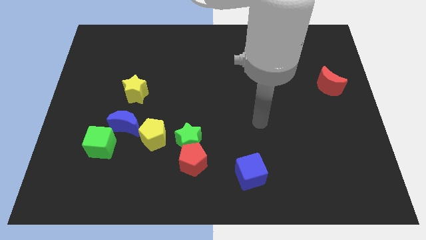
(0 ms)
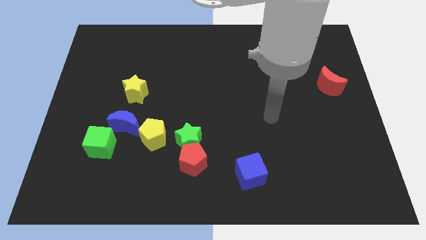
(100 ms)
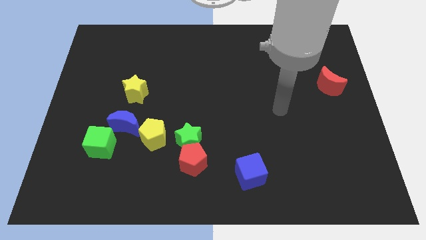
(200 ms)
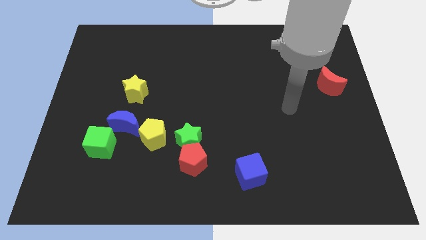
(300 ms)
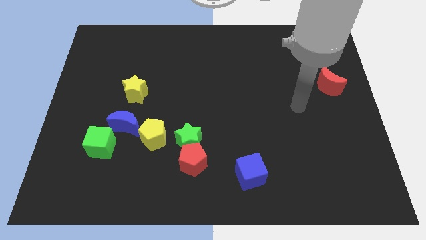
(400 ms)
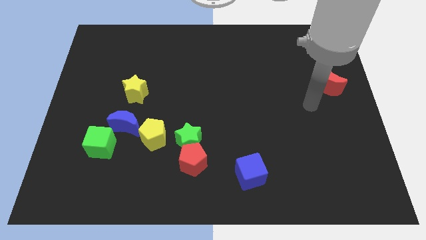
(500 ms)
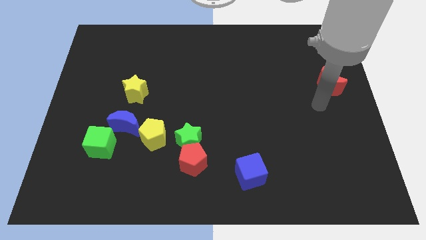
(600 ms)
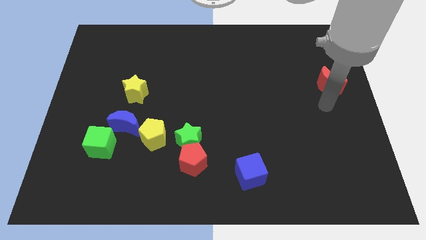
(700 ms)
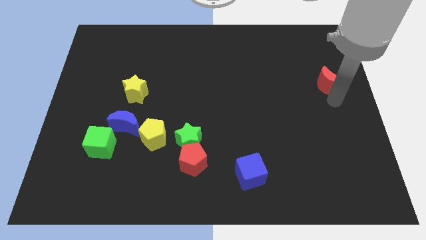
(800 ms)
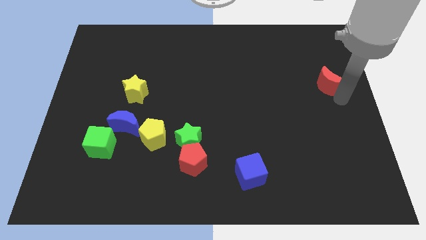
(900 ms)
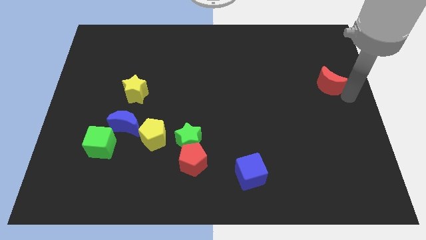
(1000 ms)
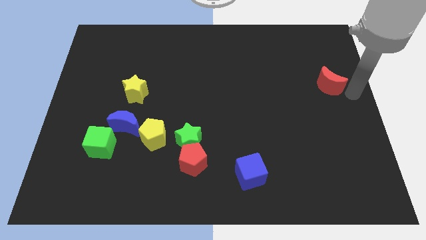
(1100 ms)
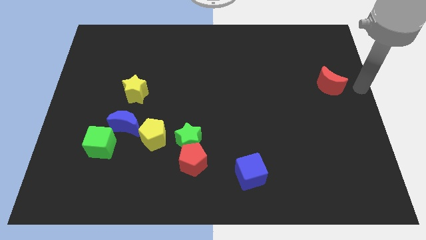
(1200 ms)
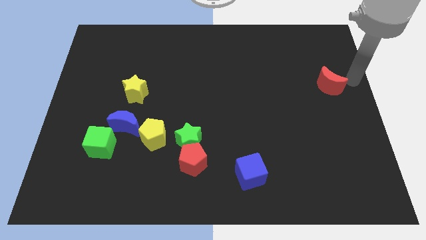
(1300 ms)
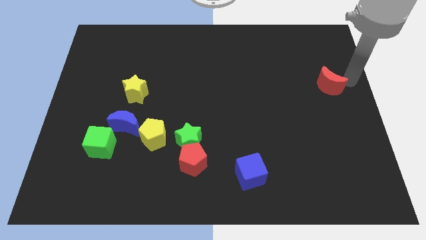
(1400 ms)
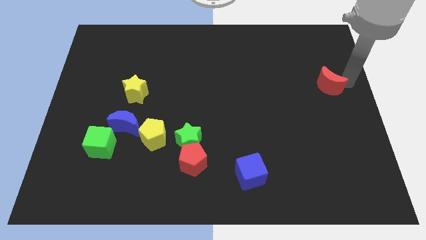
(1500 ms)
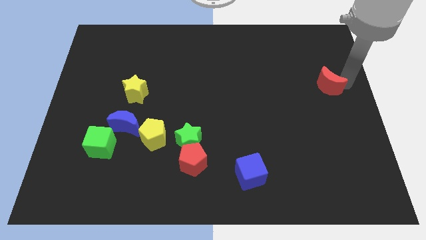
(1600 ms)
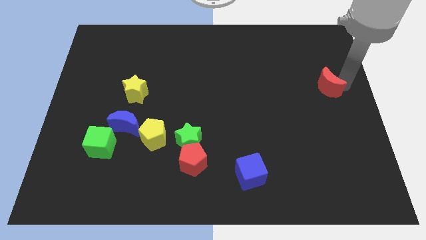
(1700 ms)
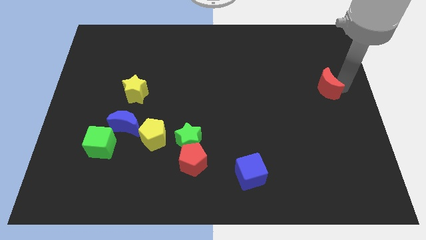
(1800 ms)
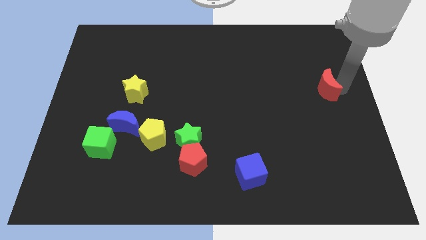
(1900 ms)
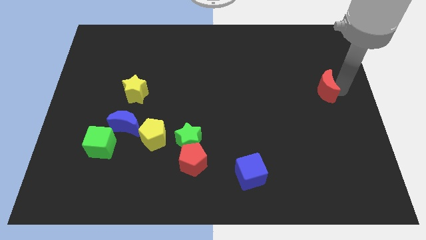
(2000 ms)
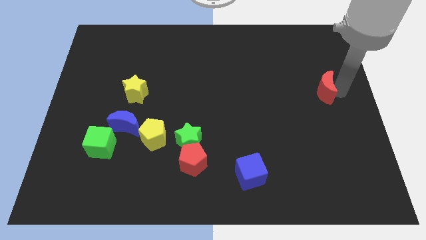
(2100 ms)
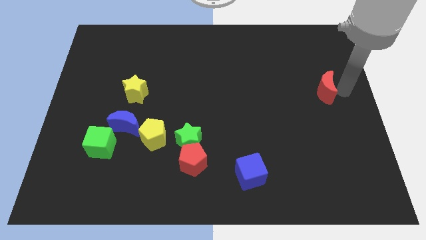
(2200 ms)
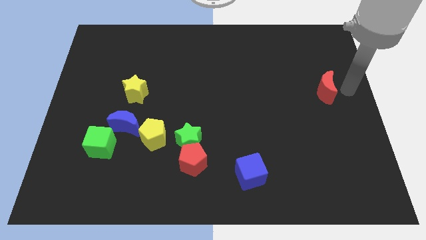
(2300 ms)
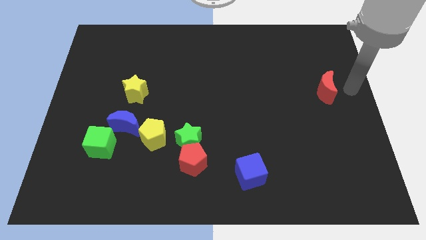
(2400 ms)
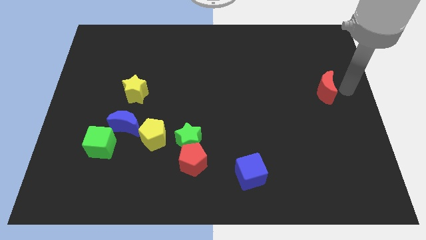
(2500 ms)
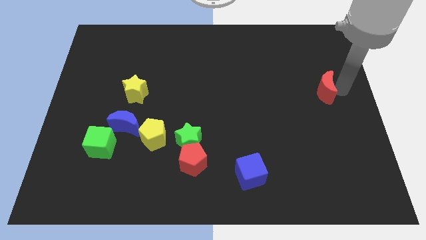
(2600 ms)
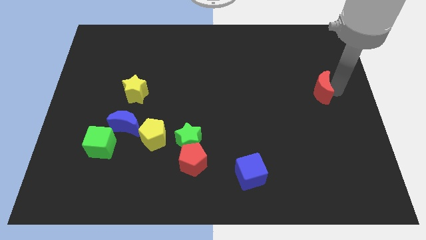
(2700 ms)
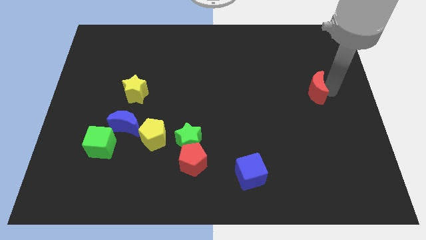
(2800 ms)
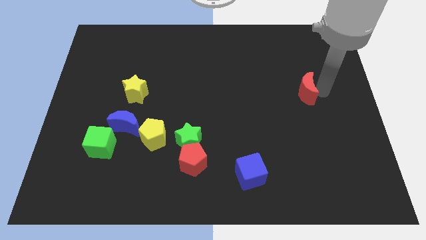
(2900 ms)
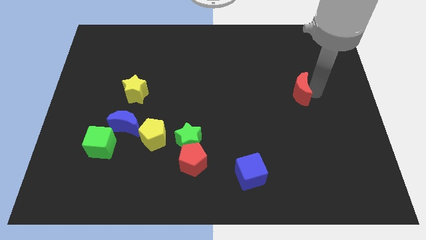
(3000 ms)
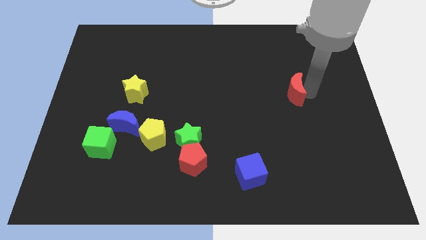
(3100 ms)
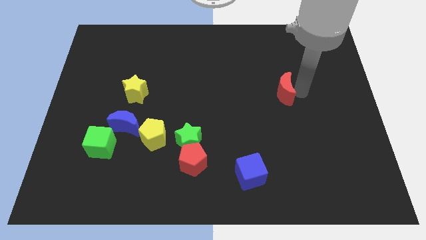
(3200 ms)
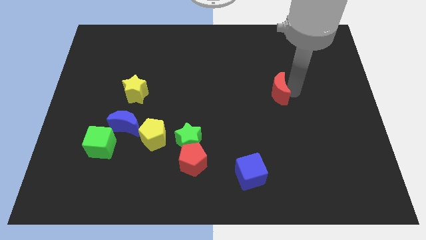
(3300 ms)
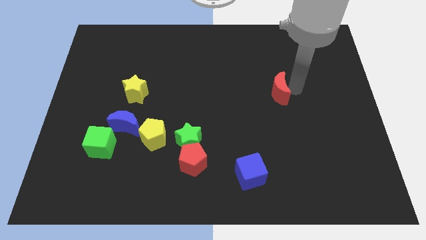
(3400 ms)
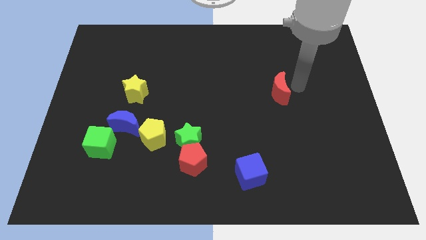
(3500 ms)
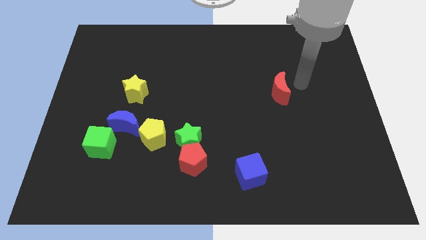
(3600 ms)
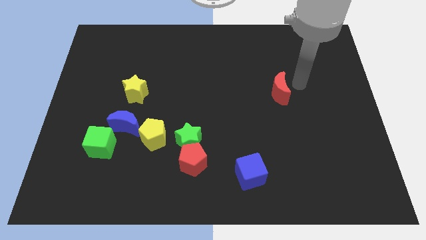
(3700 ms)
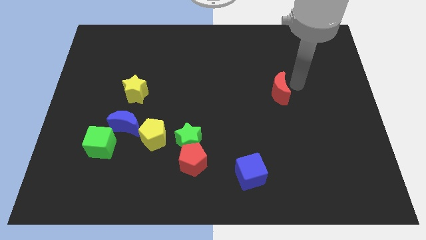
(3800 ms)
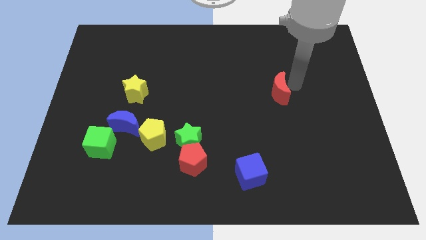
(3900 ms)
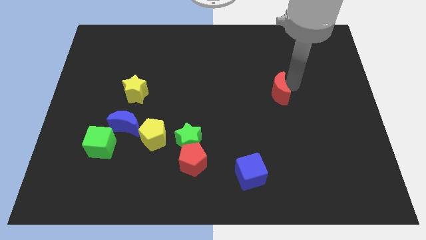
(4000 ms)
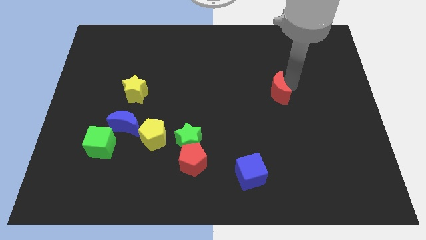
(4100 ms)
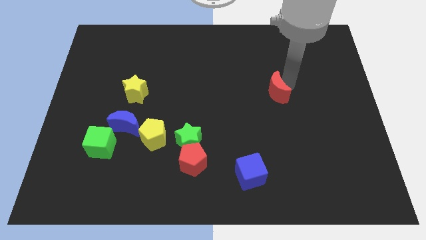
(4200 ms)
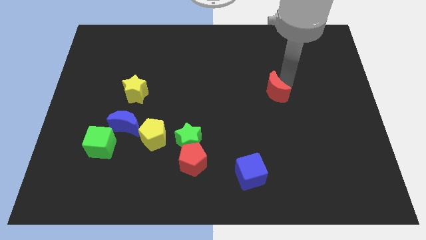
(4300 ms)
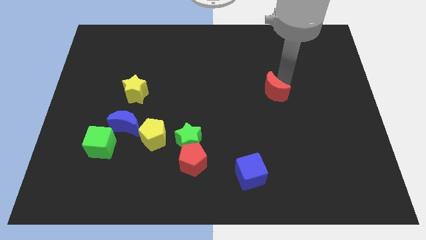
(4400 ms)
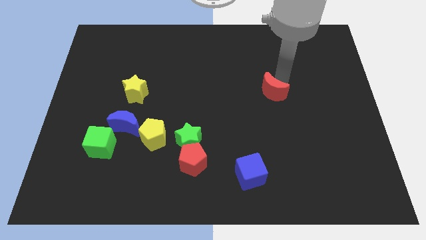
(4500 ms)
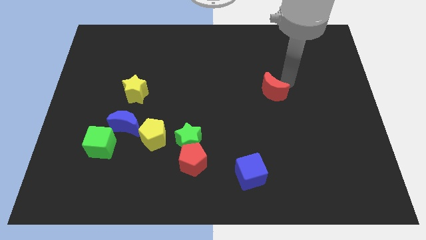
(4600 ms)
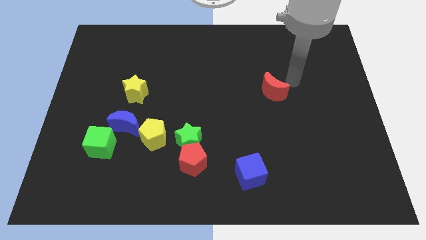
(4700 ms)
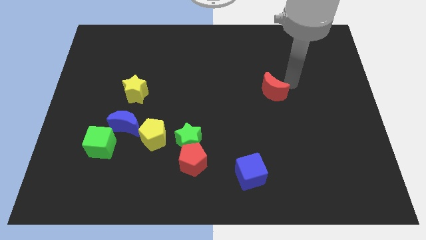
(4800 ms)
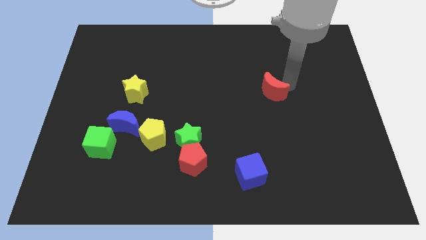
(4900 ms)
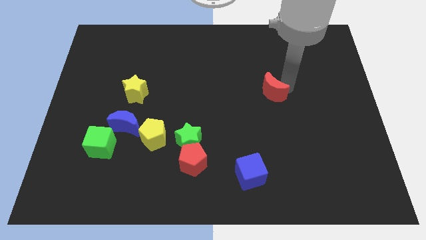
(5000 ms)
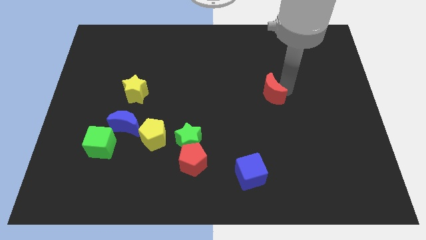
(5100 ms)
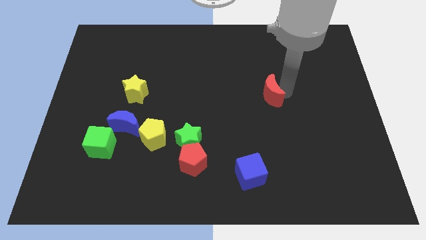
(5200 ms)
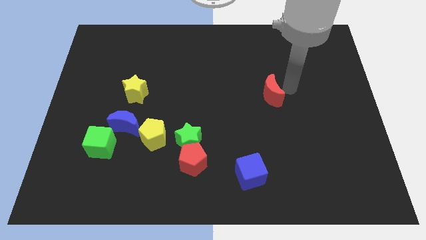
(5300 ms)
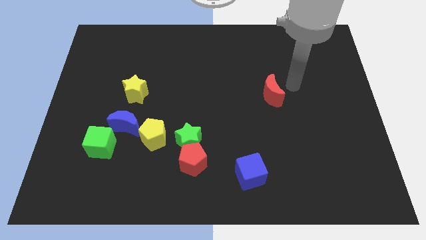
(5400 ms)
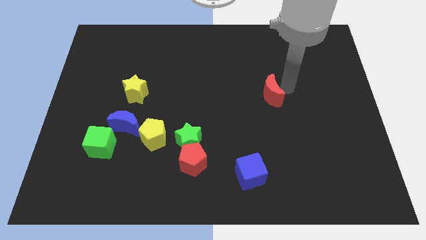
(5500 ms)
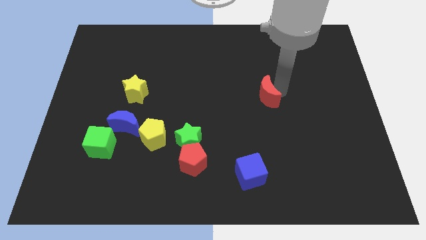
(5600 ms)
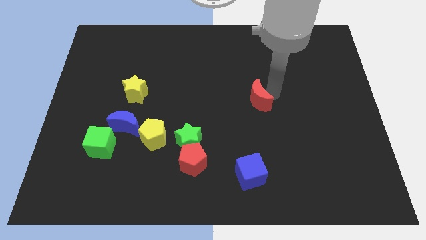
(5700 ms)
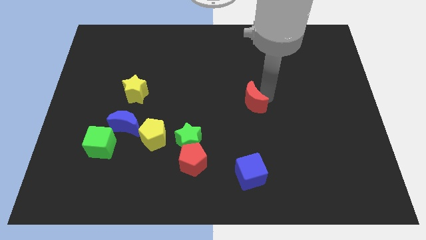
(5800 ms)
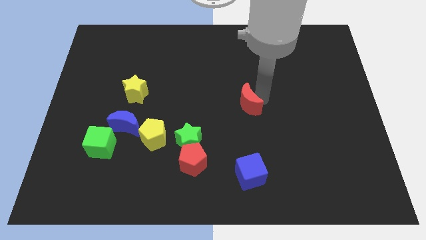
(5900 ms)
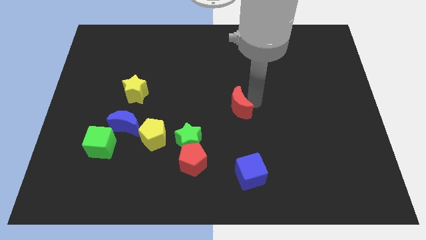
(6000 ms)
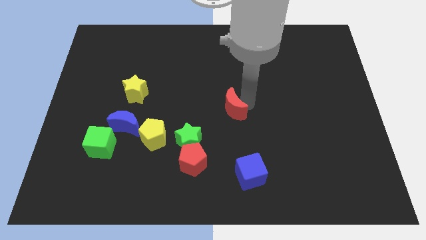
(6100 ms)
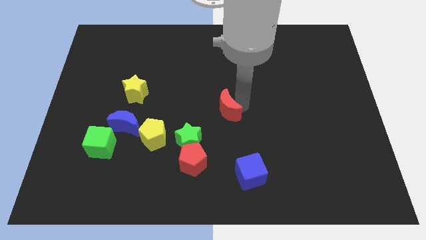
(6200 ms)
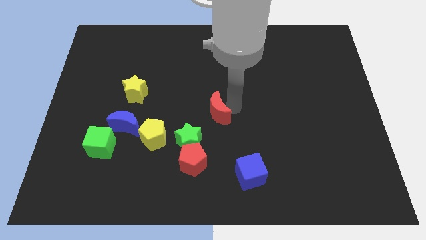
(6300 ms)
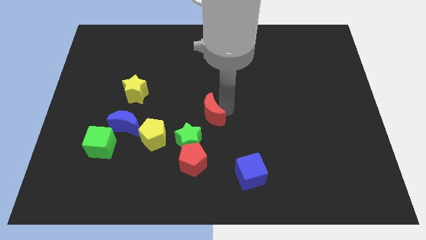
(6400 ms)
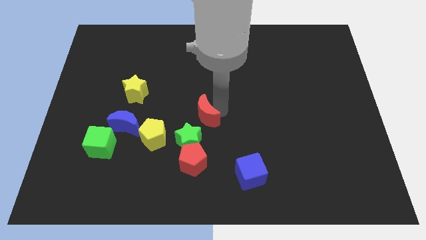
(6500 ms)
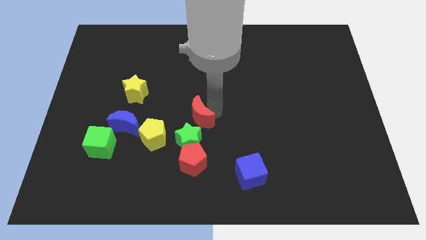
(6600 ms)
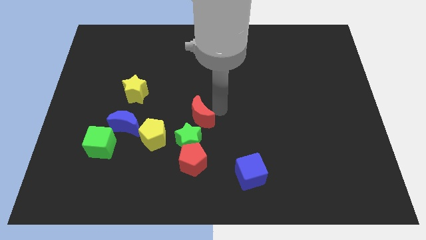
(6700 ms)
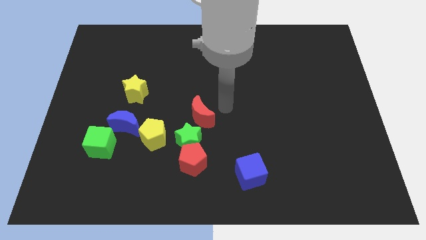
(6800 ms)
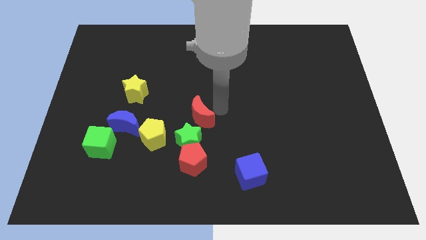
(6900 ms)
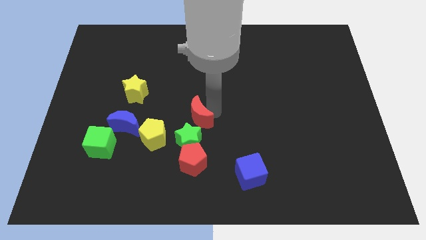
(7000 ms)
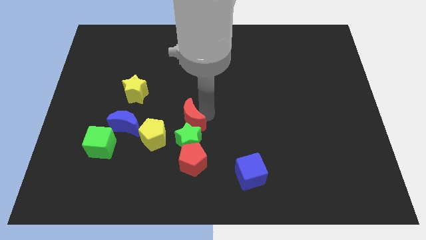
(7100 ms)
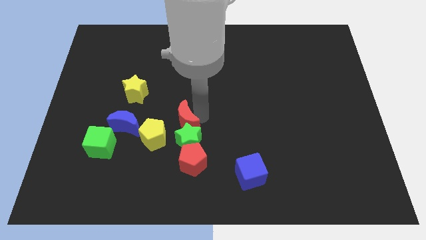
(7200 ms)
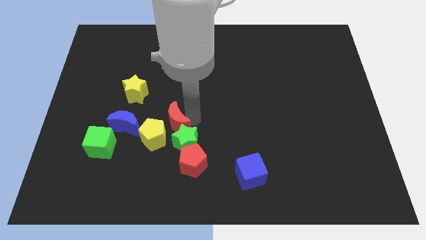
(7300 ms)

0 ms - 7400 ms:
put the red moon to the yellow pentagon

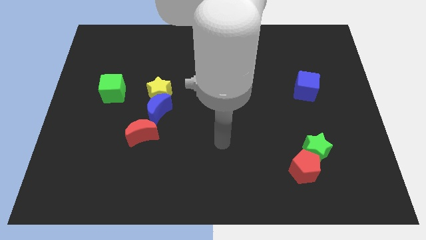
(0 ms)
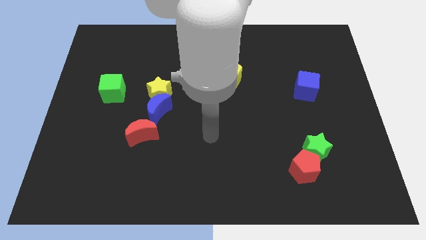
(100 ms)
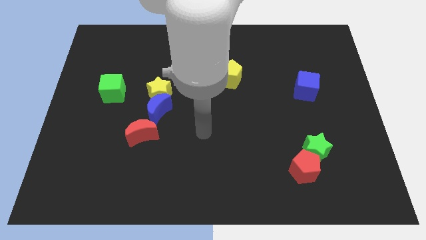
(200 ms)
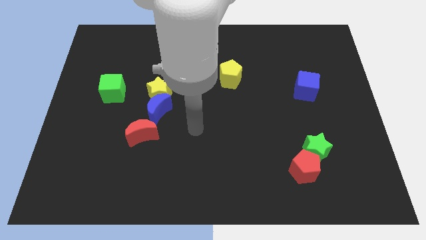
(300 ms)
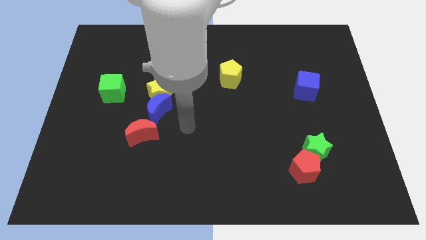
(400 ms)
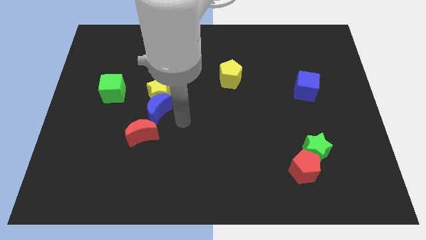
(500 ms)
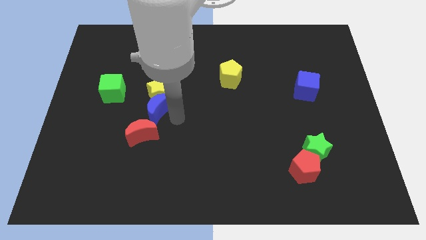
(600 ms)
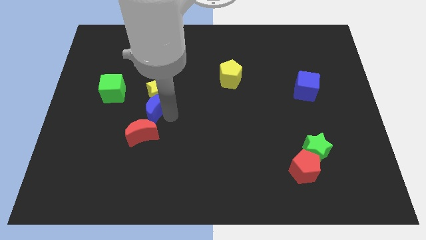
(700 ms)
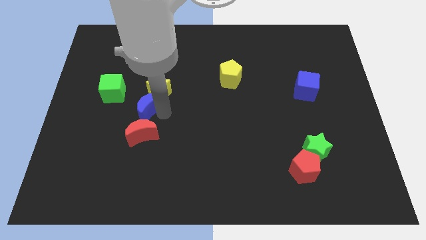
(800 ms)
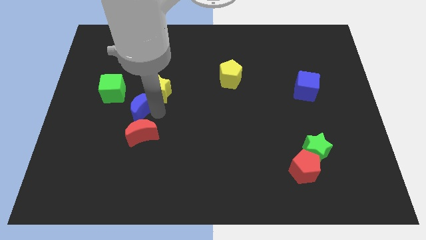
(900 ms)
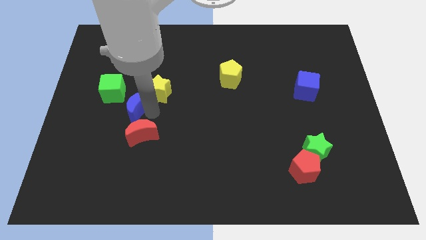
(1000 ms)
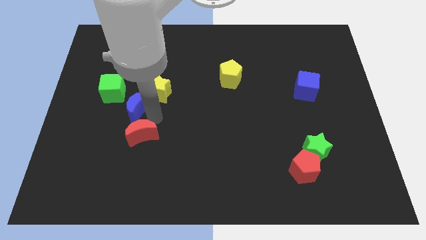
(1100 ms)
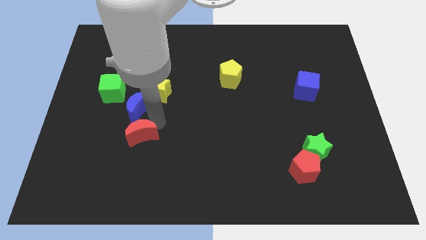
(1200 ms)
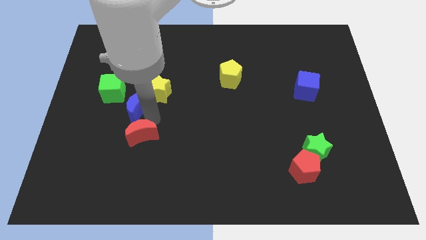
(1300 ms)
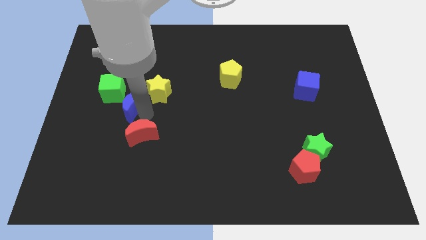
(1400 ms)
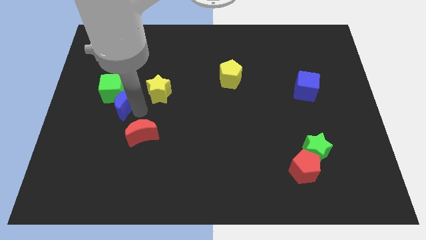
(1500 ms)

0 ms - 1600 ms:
push the blue moon close to the green cube
